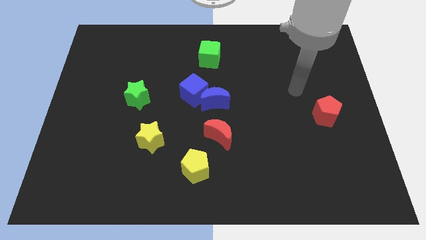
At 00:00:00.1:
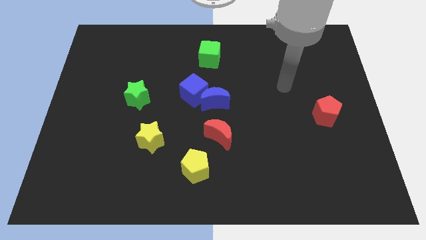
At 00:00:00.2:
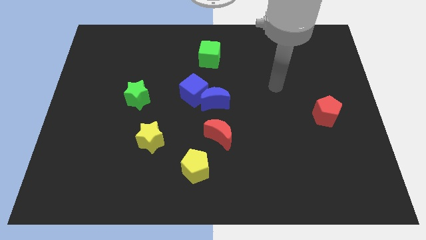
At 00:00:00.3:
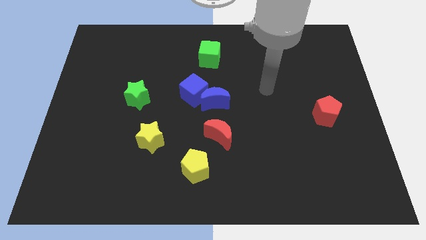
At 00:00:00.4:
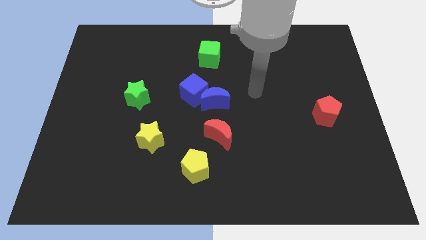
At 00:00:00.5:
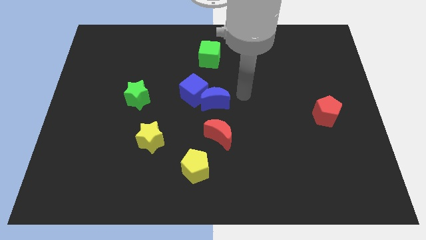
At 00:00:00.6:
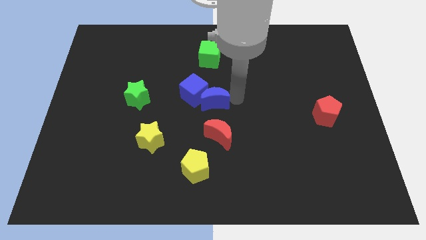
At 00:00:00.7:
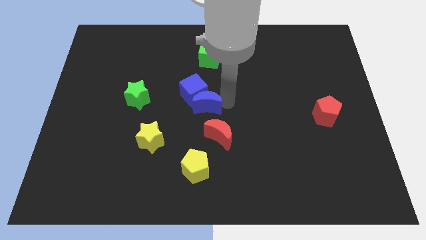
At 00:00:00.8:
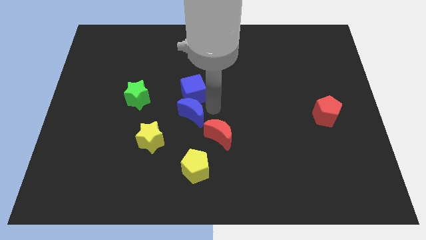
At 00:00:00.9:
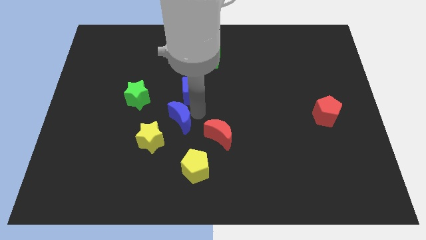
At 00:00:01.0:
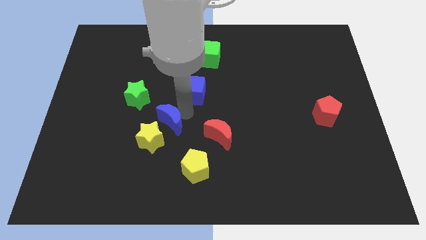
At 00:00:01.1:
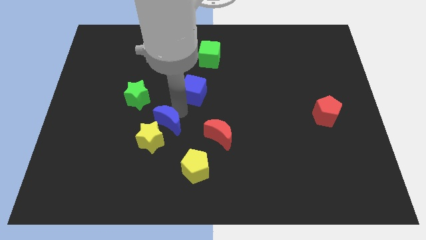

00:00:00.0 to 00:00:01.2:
separate the blue cube from the blue moon

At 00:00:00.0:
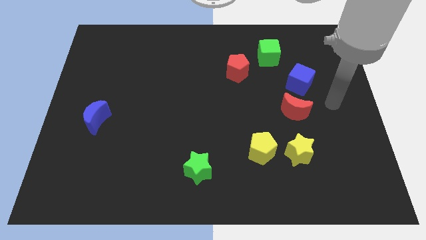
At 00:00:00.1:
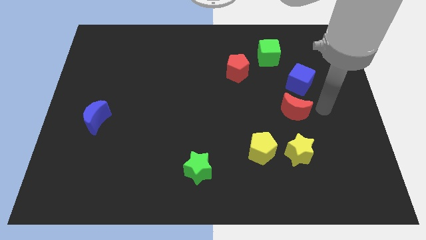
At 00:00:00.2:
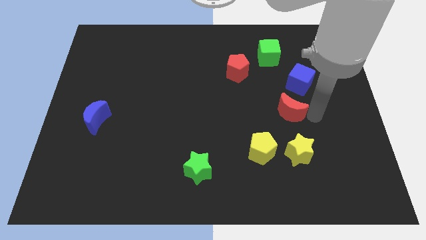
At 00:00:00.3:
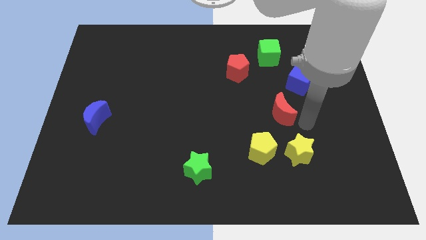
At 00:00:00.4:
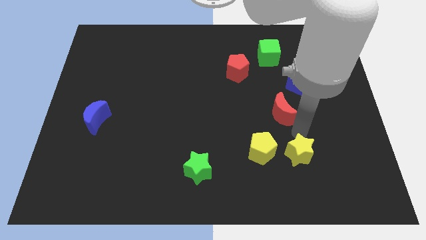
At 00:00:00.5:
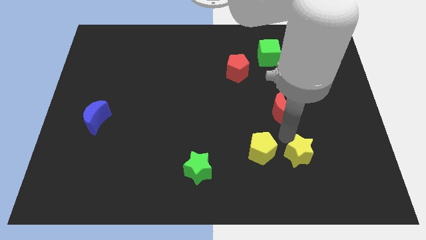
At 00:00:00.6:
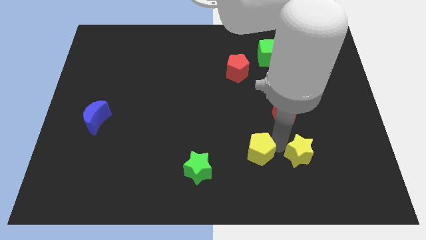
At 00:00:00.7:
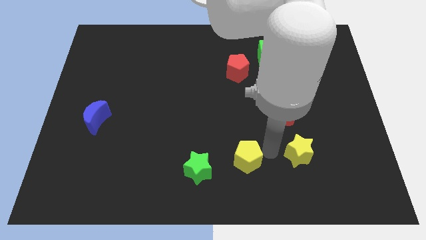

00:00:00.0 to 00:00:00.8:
move the yellow star away from the yellow pentagon

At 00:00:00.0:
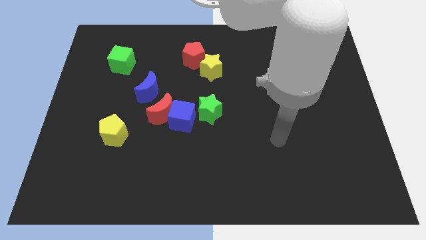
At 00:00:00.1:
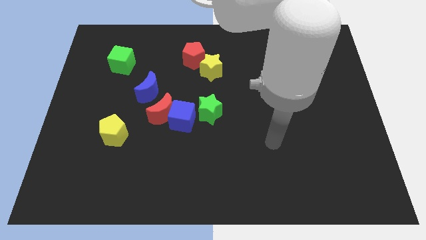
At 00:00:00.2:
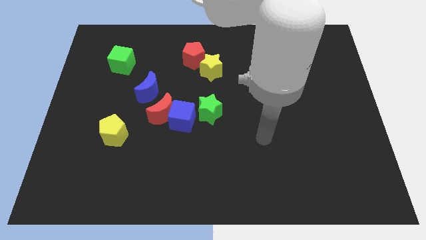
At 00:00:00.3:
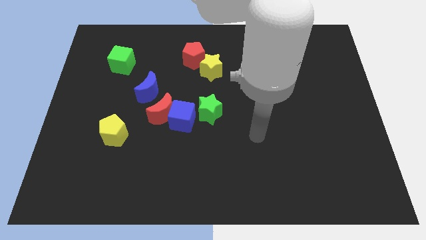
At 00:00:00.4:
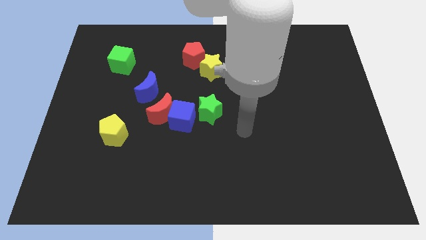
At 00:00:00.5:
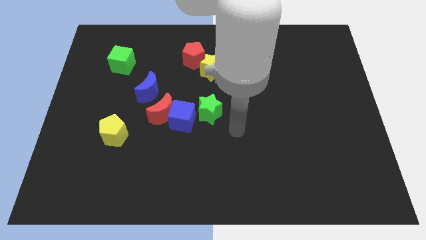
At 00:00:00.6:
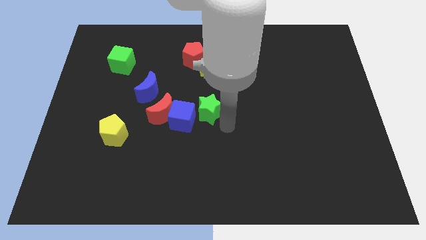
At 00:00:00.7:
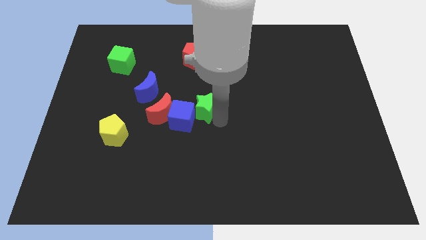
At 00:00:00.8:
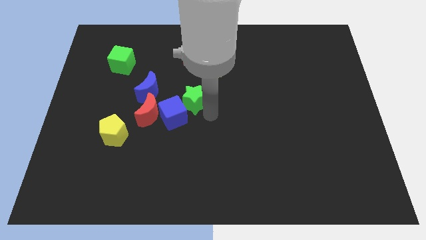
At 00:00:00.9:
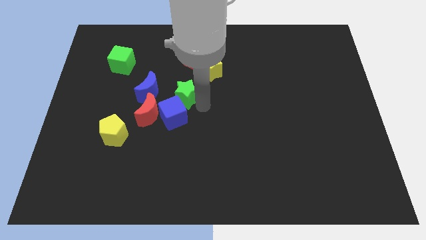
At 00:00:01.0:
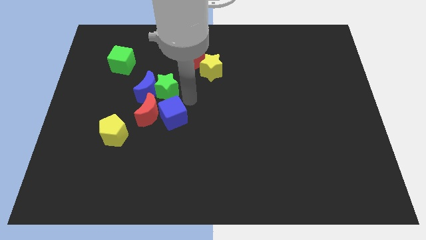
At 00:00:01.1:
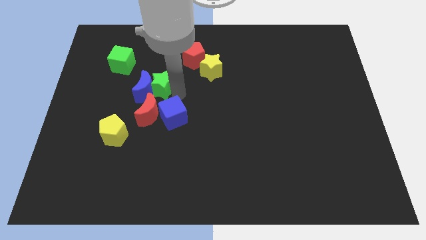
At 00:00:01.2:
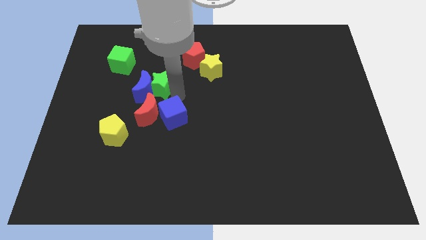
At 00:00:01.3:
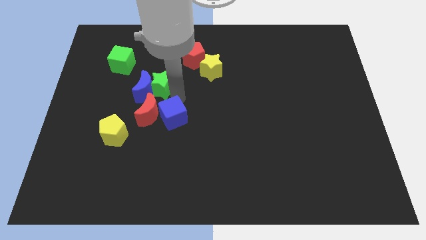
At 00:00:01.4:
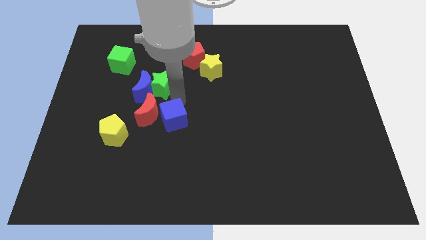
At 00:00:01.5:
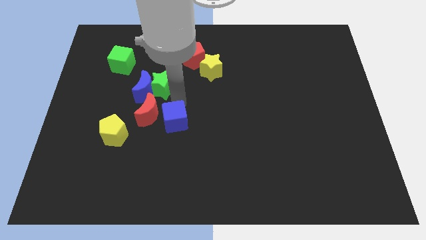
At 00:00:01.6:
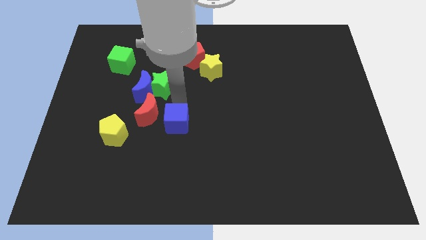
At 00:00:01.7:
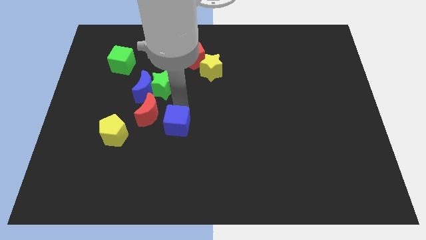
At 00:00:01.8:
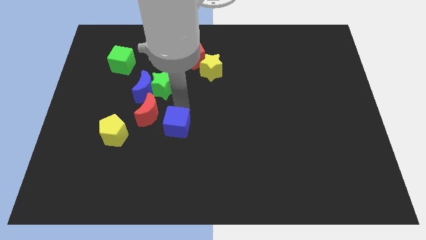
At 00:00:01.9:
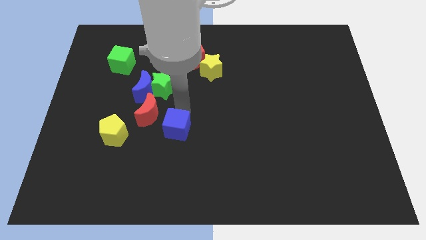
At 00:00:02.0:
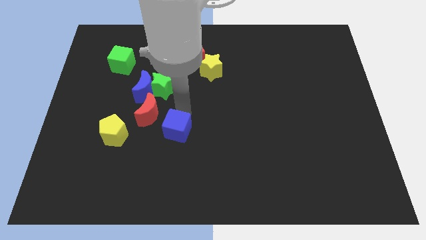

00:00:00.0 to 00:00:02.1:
separate the blue cube from the red moon and green star

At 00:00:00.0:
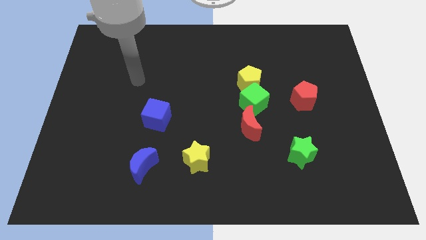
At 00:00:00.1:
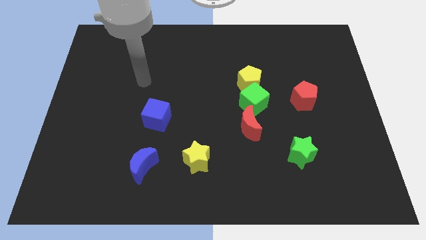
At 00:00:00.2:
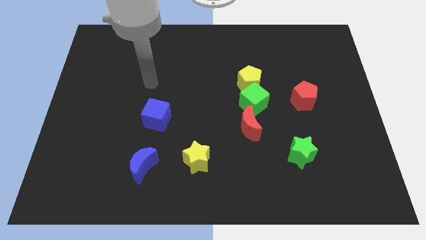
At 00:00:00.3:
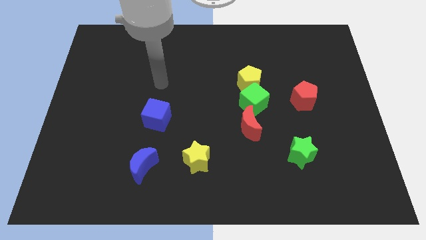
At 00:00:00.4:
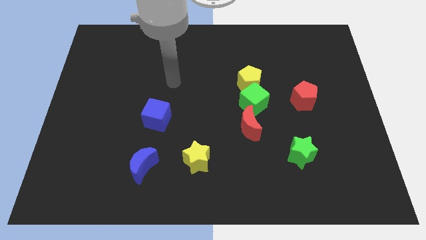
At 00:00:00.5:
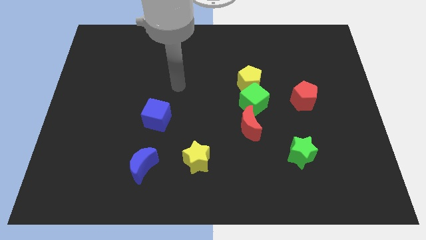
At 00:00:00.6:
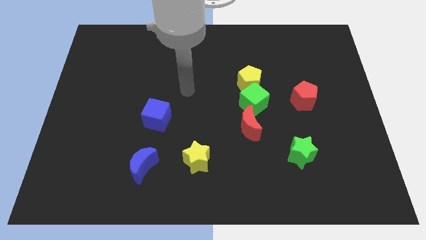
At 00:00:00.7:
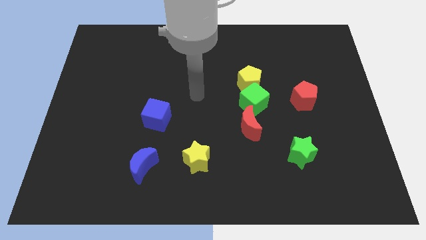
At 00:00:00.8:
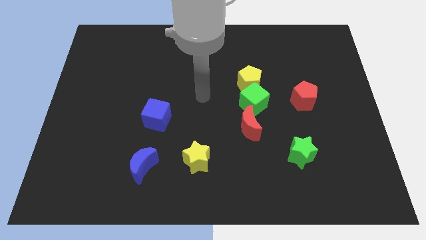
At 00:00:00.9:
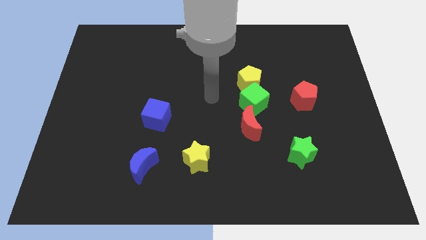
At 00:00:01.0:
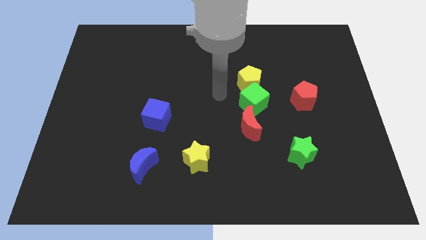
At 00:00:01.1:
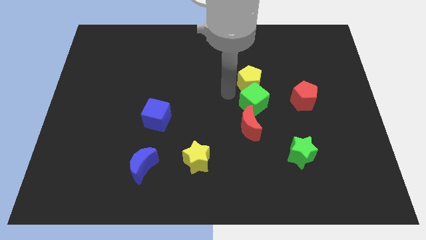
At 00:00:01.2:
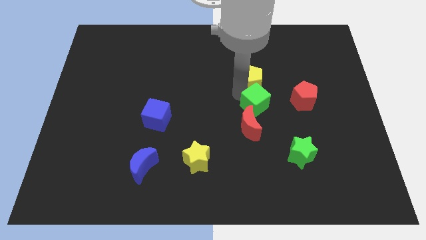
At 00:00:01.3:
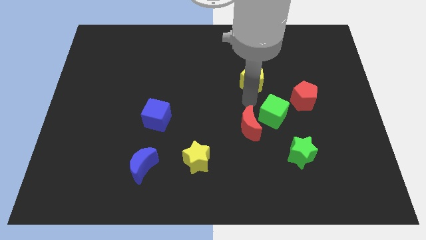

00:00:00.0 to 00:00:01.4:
separate the yellow pentagon from the green cube

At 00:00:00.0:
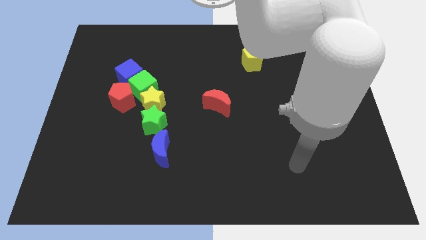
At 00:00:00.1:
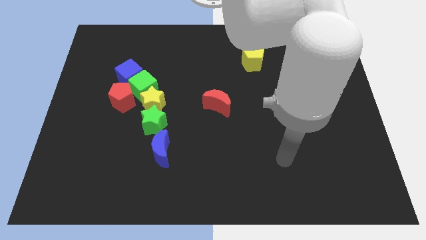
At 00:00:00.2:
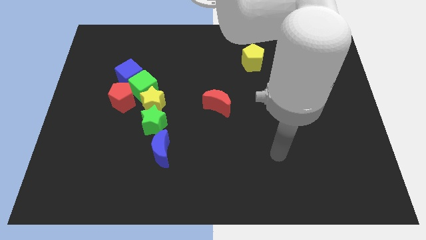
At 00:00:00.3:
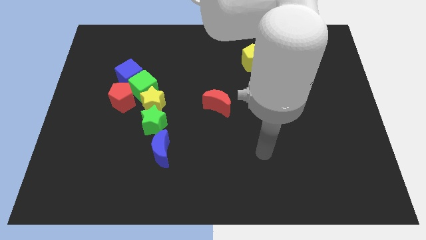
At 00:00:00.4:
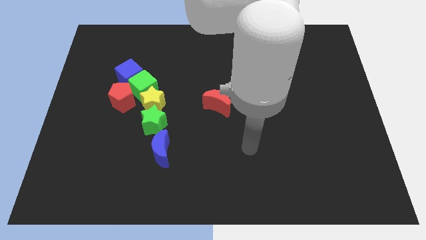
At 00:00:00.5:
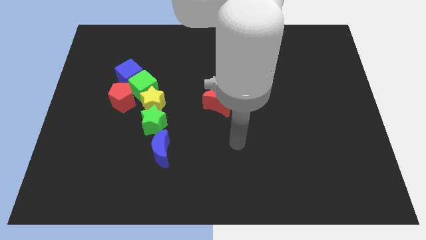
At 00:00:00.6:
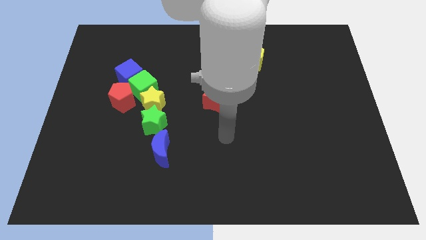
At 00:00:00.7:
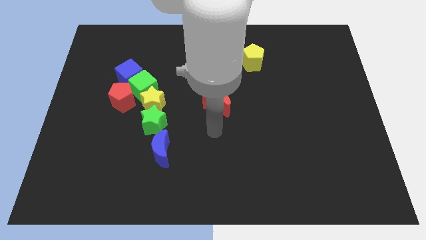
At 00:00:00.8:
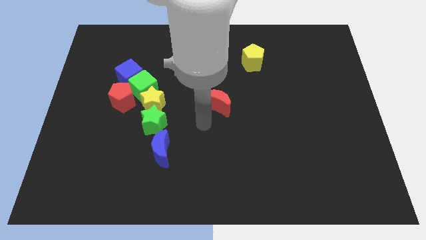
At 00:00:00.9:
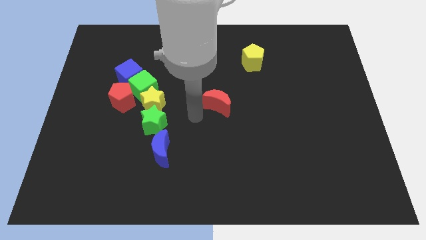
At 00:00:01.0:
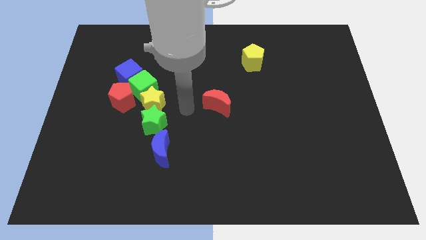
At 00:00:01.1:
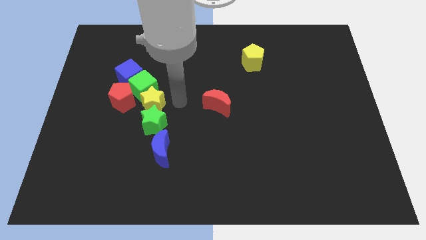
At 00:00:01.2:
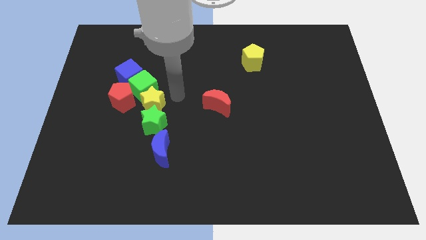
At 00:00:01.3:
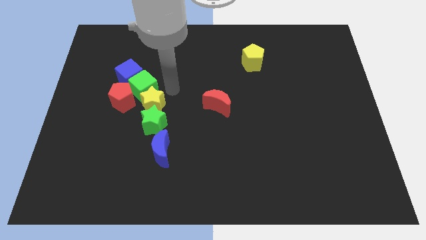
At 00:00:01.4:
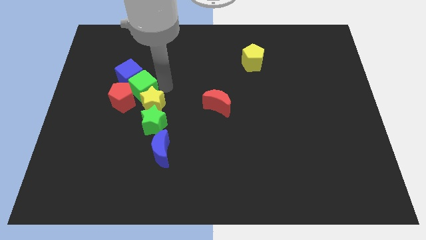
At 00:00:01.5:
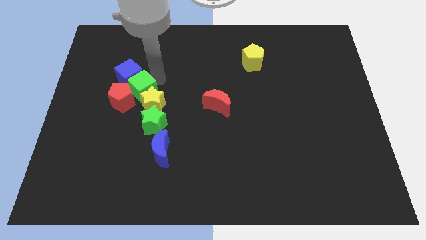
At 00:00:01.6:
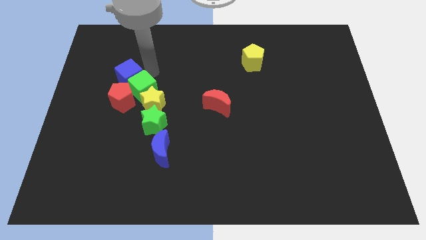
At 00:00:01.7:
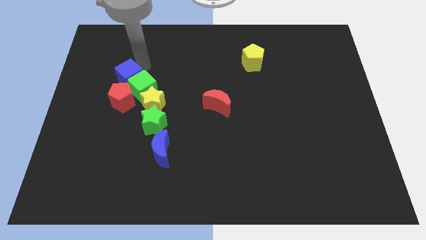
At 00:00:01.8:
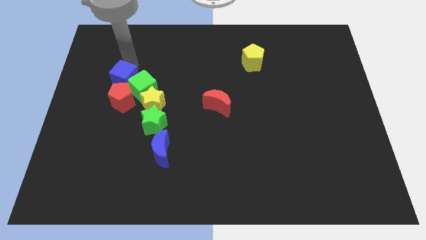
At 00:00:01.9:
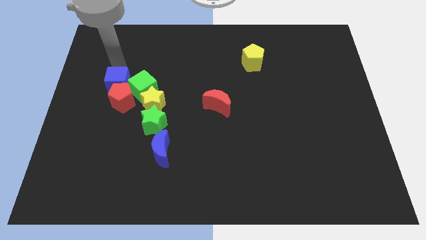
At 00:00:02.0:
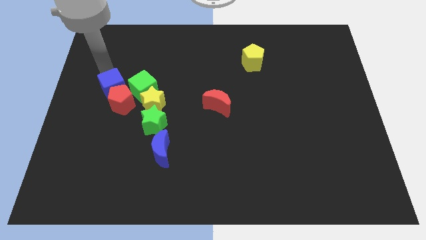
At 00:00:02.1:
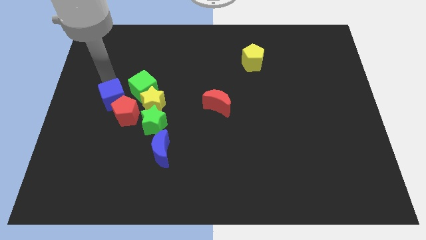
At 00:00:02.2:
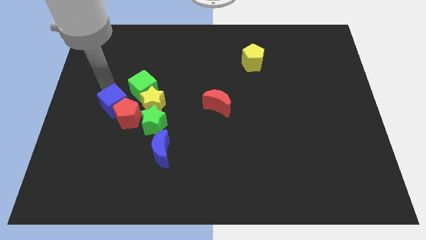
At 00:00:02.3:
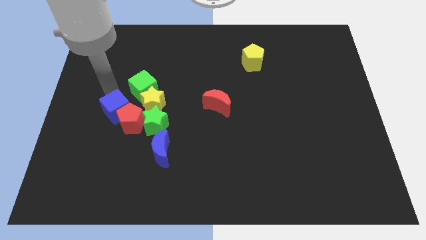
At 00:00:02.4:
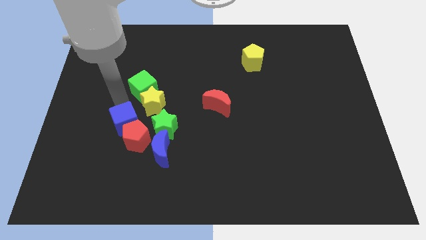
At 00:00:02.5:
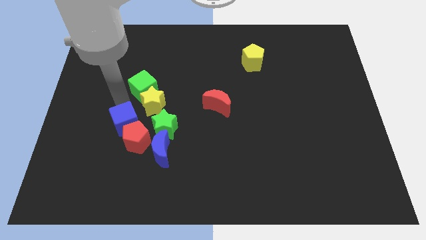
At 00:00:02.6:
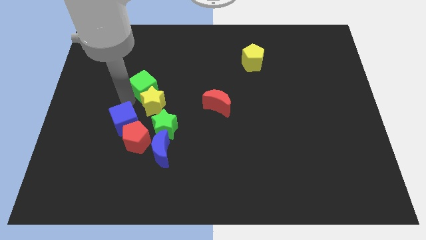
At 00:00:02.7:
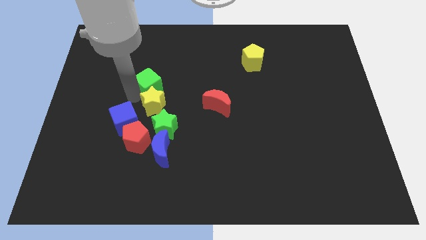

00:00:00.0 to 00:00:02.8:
pull the green cube apart from the blue cube, yellow star, and red pentagon

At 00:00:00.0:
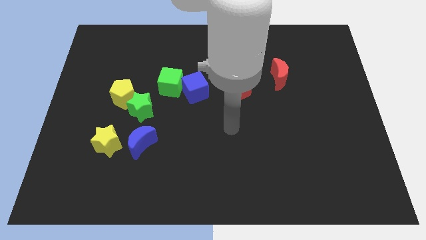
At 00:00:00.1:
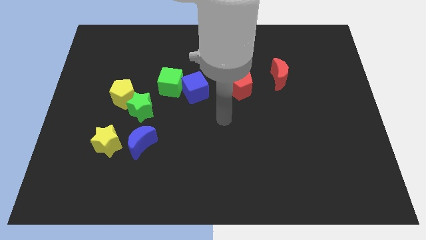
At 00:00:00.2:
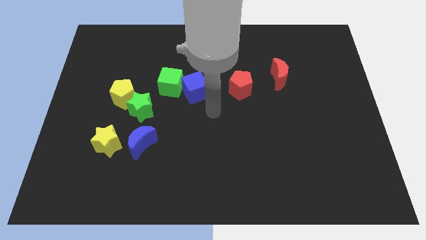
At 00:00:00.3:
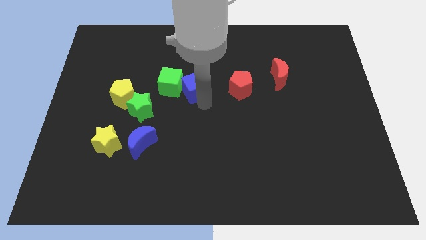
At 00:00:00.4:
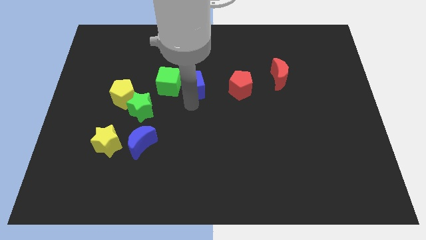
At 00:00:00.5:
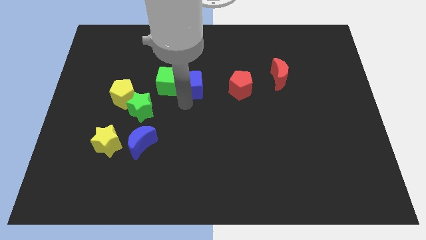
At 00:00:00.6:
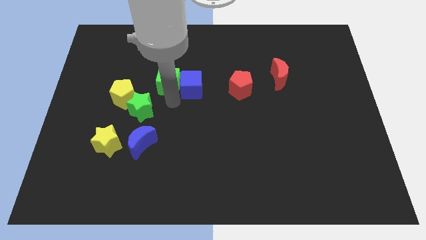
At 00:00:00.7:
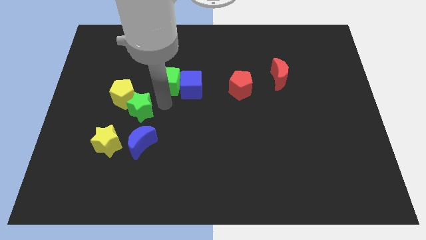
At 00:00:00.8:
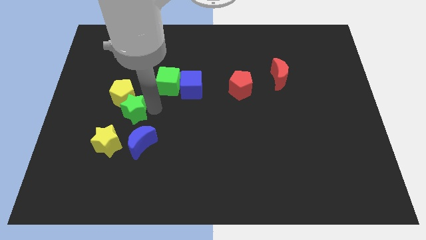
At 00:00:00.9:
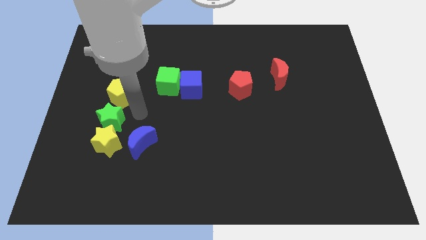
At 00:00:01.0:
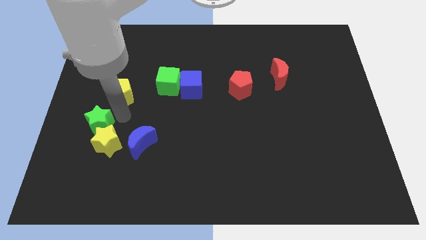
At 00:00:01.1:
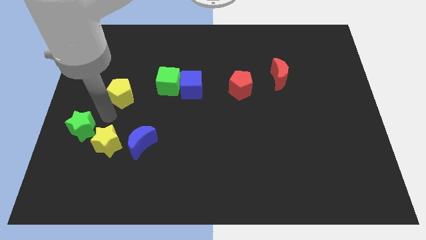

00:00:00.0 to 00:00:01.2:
move the yellow pentagon away from the green star
